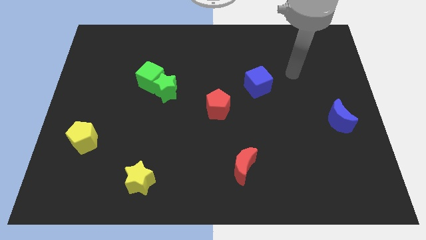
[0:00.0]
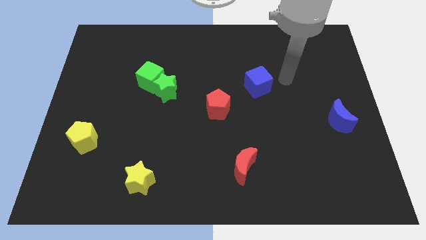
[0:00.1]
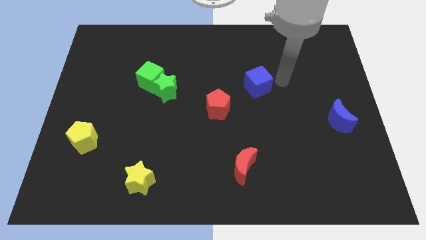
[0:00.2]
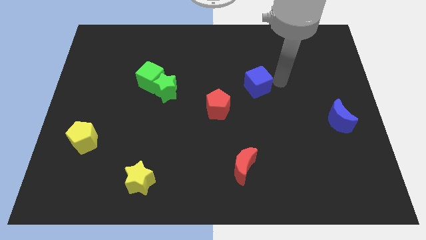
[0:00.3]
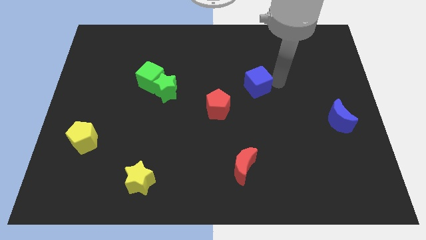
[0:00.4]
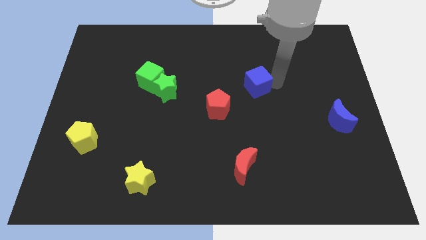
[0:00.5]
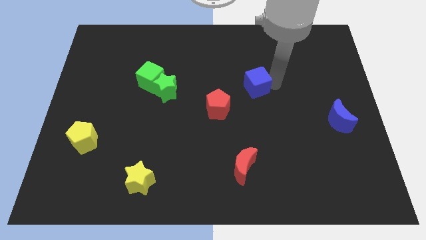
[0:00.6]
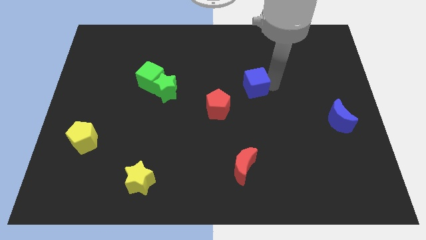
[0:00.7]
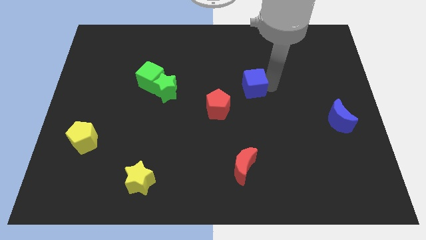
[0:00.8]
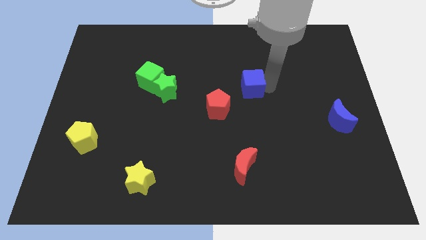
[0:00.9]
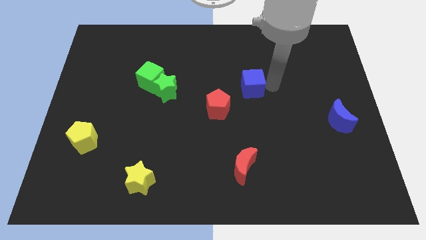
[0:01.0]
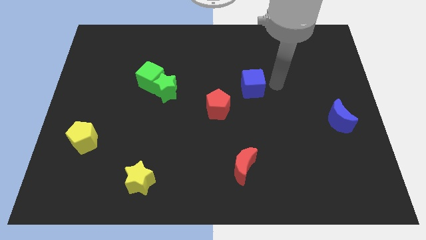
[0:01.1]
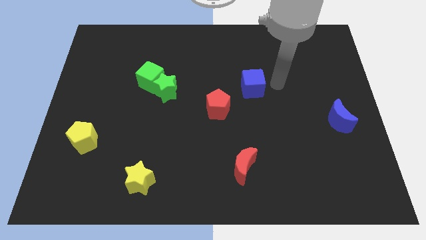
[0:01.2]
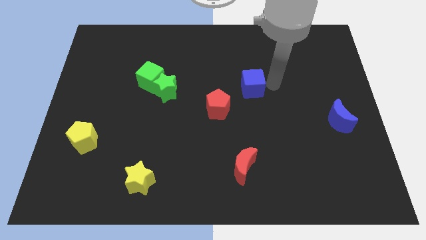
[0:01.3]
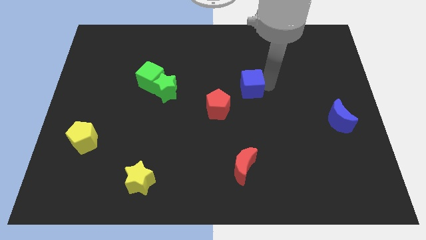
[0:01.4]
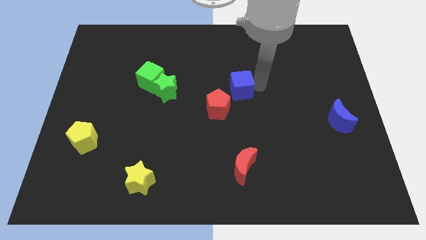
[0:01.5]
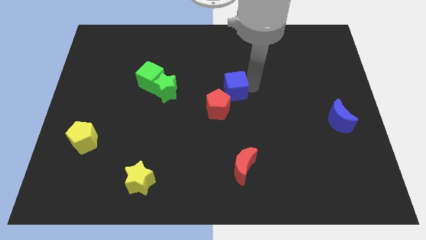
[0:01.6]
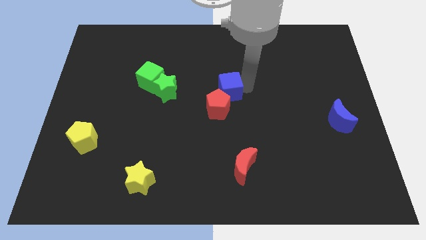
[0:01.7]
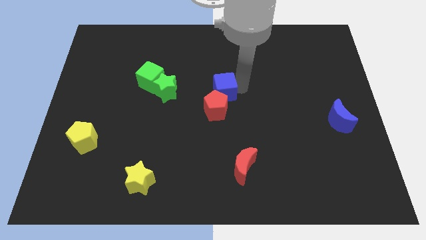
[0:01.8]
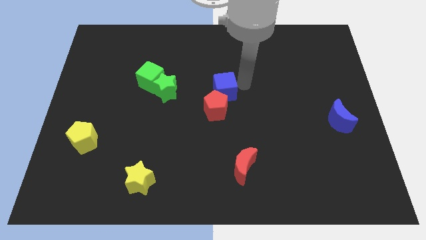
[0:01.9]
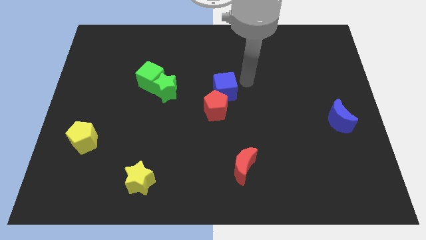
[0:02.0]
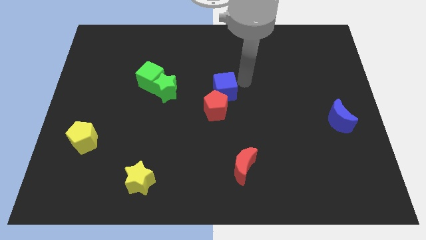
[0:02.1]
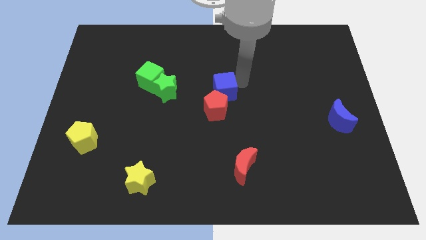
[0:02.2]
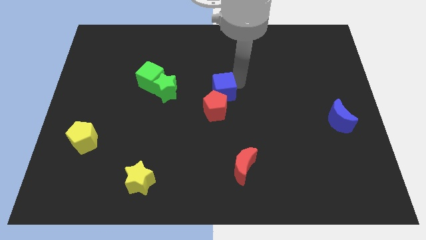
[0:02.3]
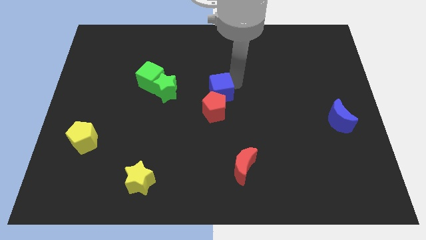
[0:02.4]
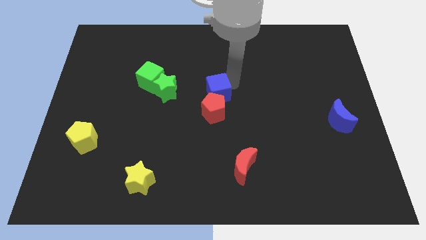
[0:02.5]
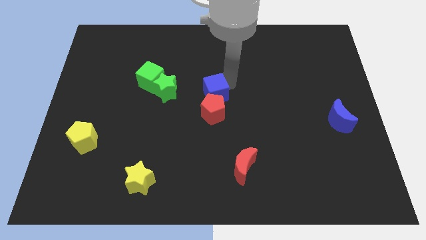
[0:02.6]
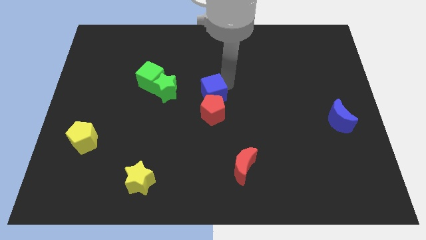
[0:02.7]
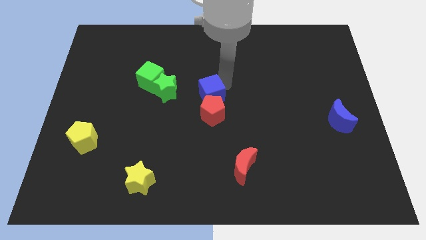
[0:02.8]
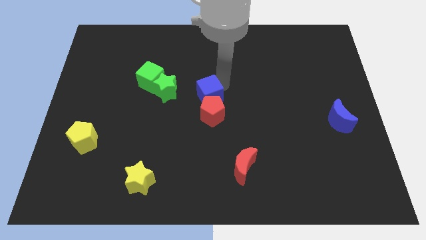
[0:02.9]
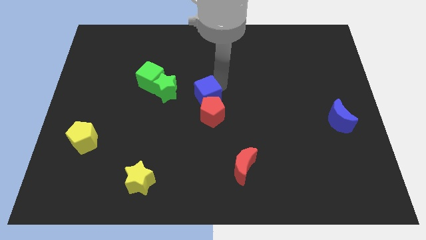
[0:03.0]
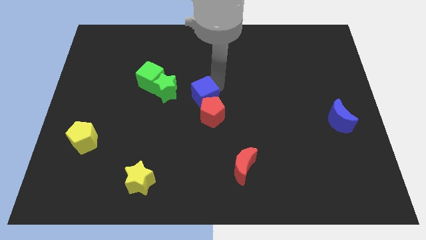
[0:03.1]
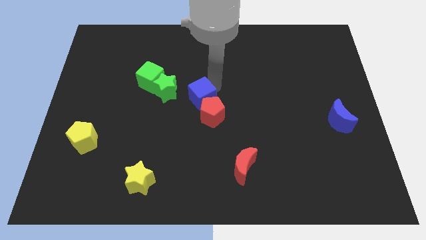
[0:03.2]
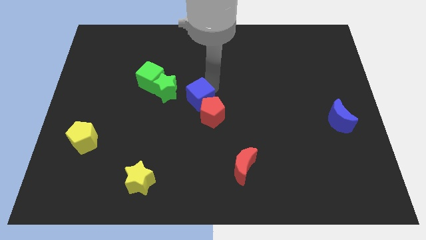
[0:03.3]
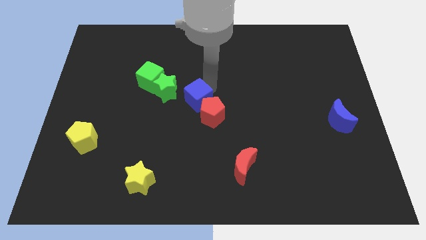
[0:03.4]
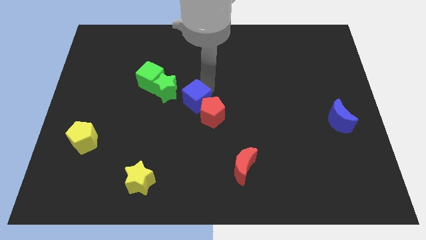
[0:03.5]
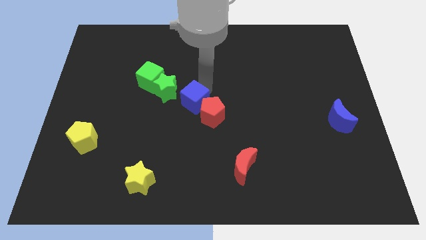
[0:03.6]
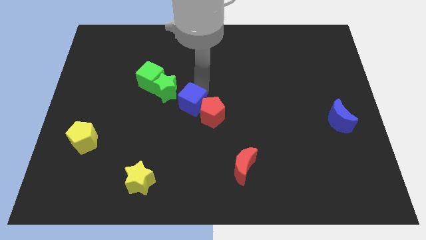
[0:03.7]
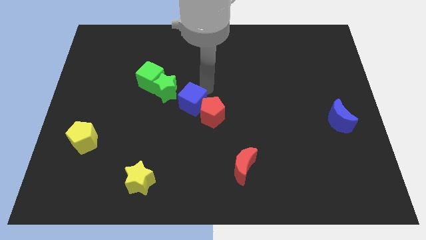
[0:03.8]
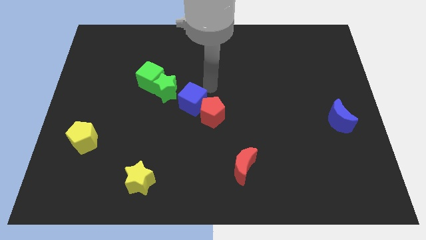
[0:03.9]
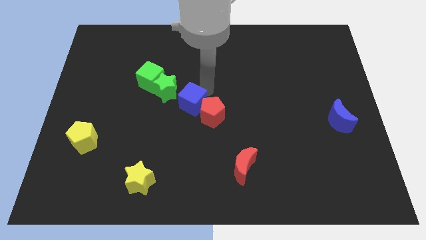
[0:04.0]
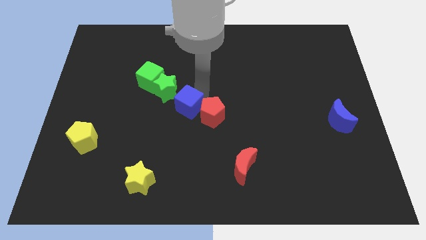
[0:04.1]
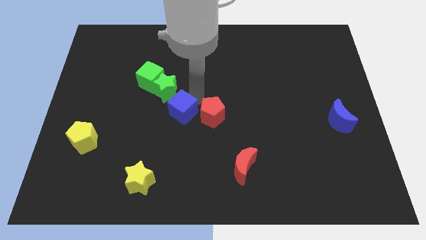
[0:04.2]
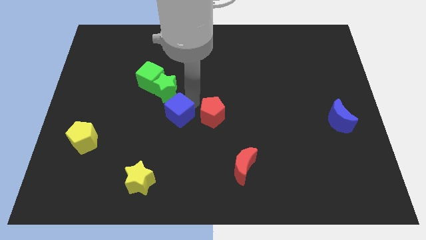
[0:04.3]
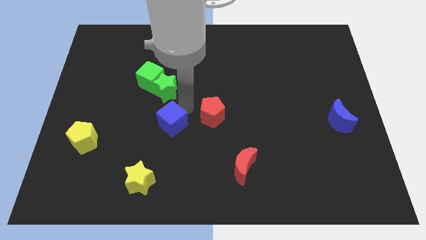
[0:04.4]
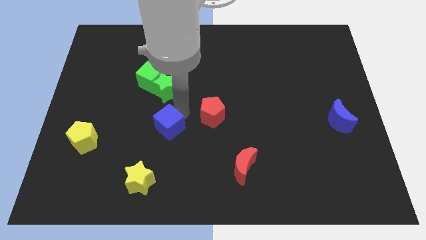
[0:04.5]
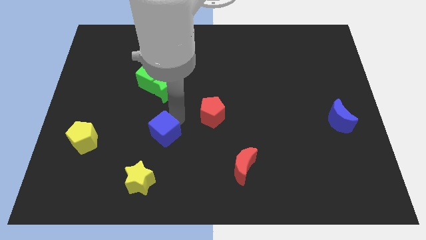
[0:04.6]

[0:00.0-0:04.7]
move the blue cube to the top side of the yellow star

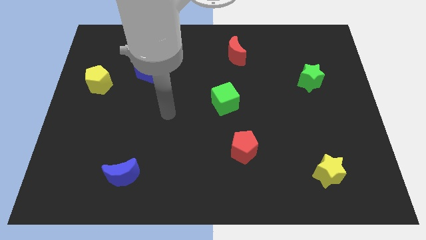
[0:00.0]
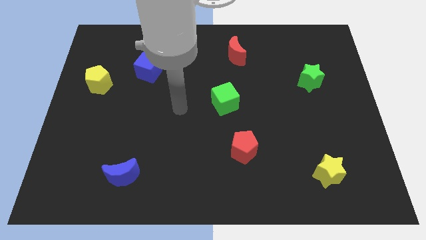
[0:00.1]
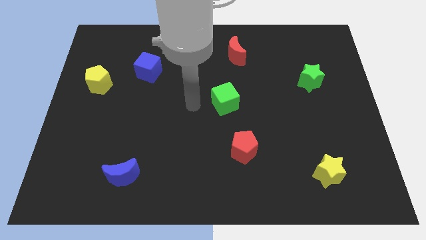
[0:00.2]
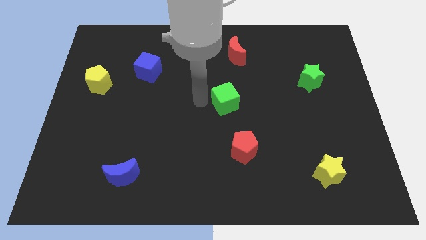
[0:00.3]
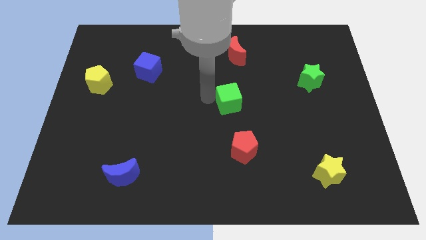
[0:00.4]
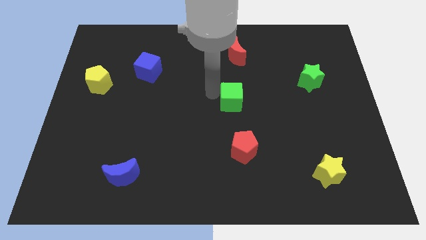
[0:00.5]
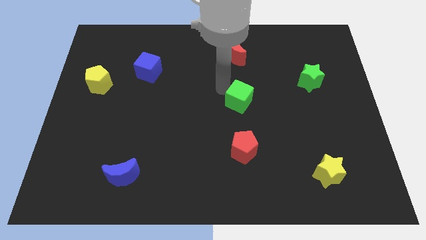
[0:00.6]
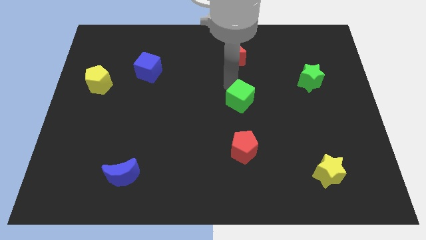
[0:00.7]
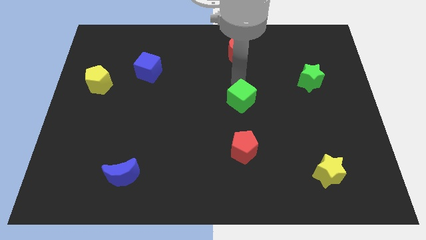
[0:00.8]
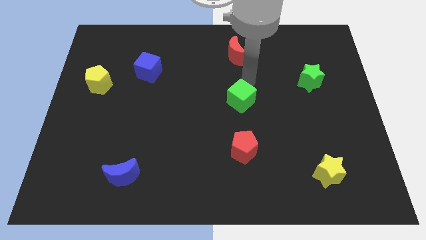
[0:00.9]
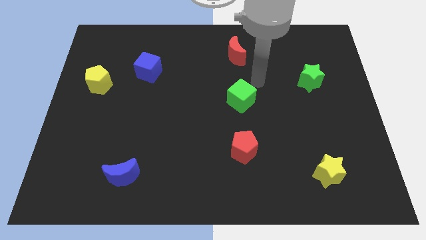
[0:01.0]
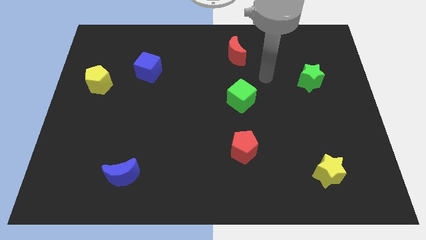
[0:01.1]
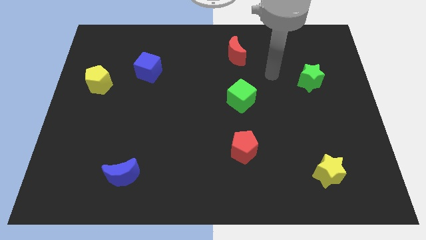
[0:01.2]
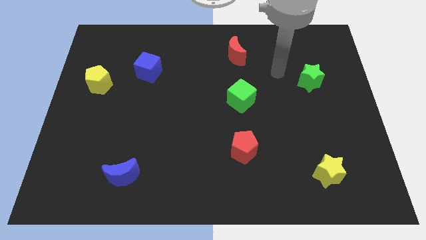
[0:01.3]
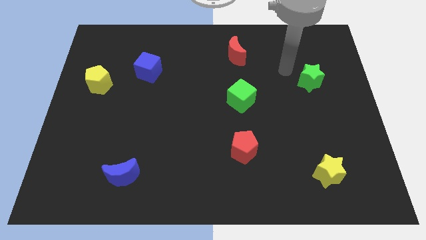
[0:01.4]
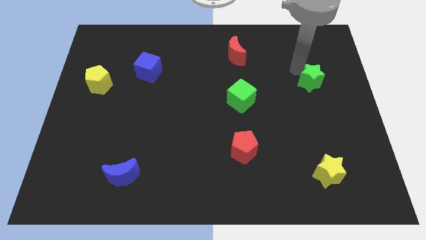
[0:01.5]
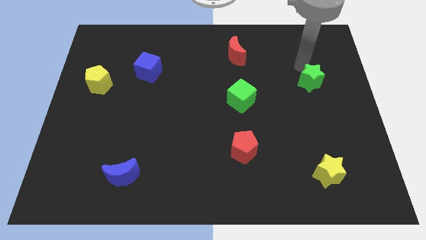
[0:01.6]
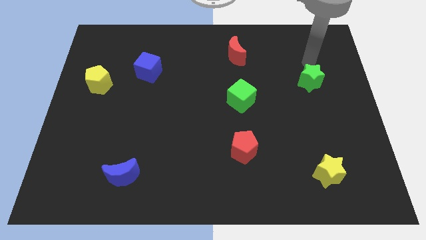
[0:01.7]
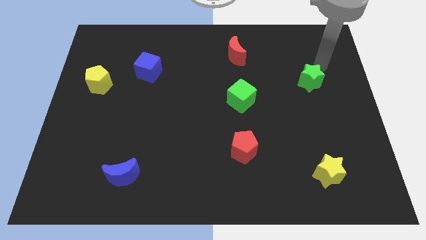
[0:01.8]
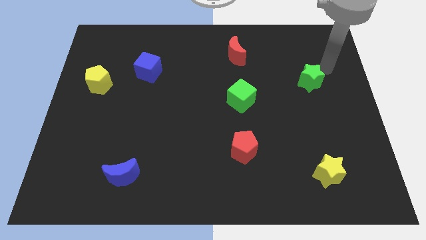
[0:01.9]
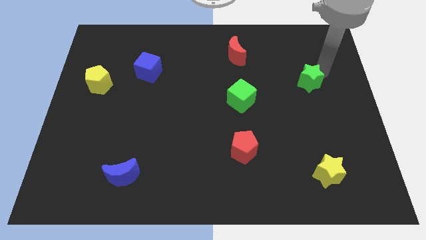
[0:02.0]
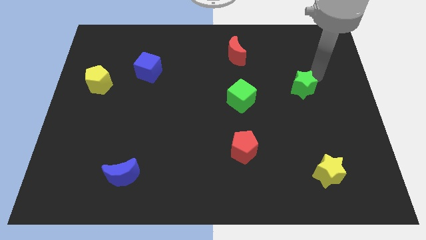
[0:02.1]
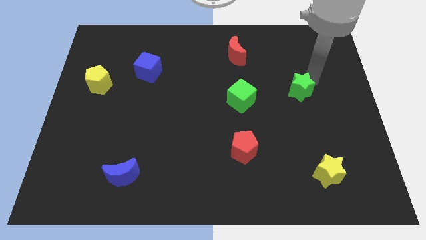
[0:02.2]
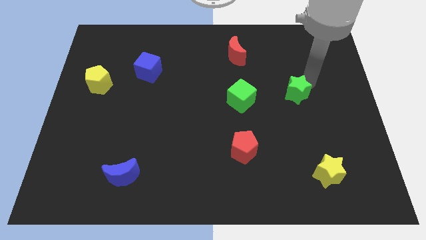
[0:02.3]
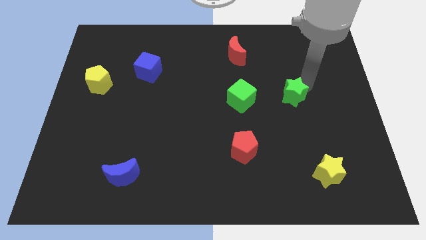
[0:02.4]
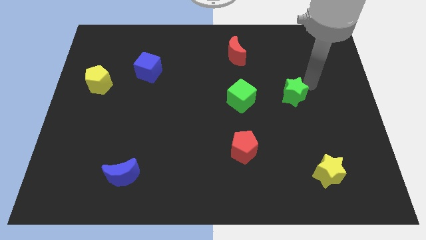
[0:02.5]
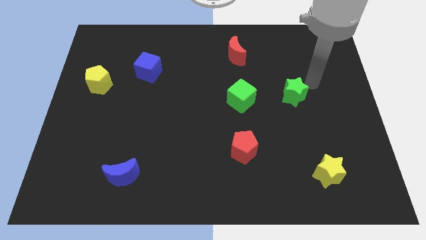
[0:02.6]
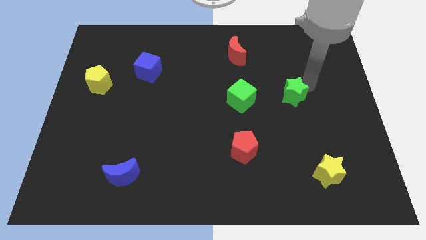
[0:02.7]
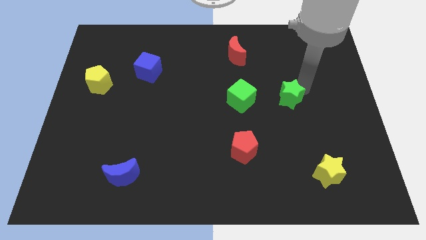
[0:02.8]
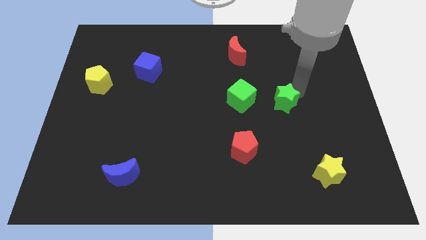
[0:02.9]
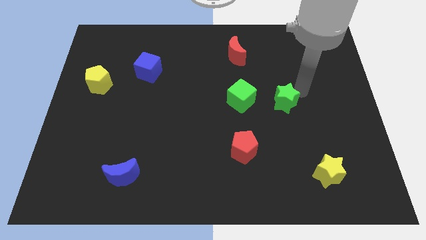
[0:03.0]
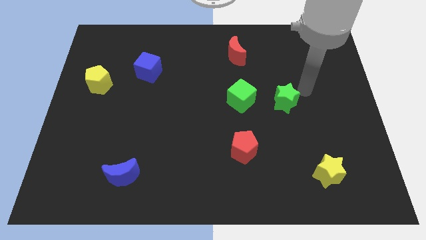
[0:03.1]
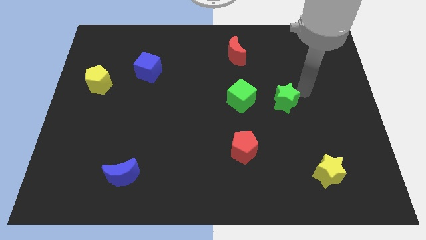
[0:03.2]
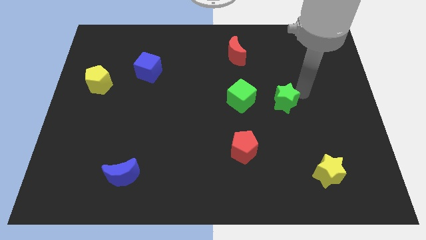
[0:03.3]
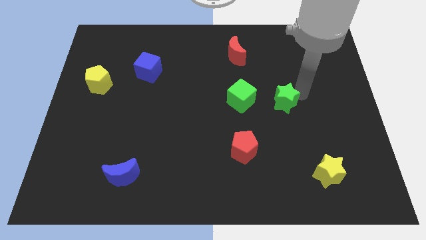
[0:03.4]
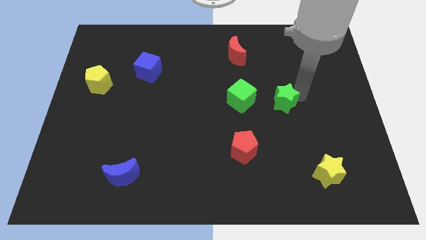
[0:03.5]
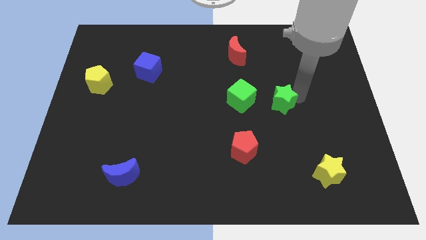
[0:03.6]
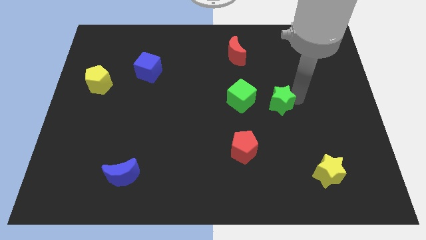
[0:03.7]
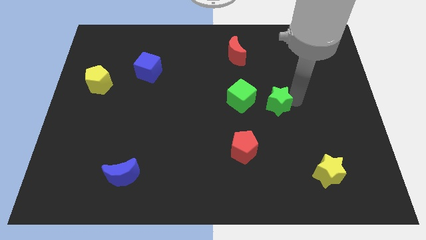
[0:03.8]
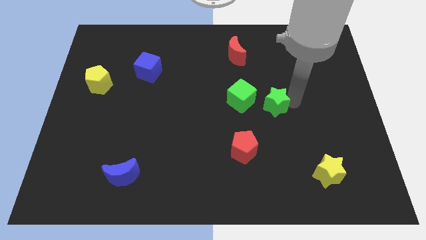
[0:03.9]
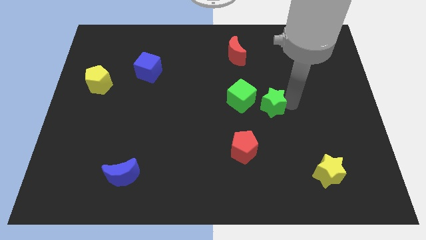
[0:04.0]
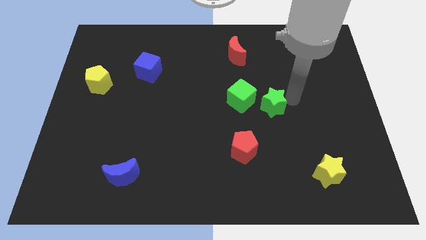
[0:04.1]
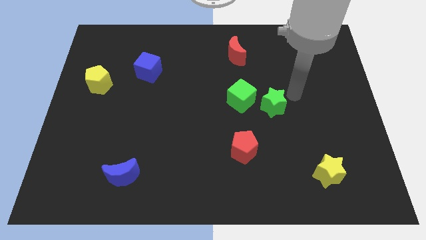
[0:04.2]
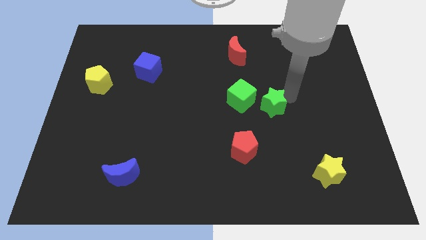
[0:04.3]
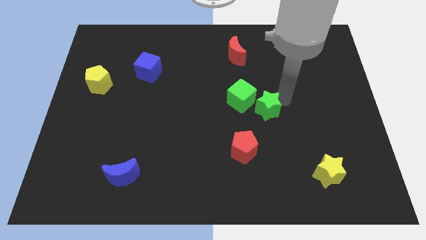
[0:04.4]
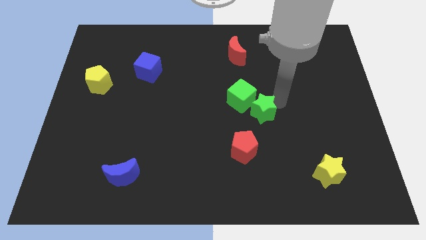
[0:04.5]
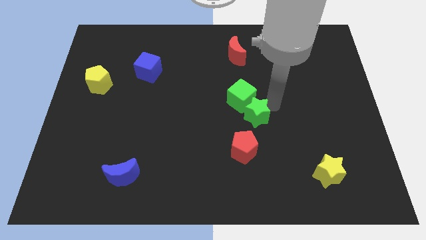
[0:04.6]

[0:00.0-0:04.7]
move the green star below the green cube
